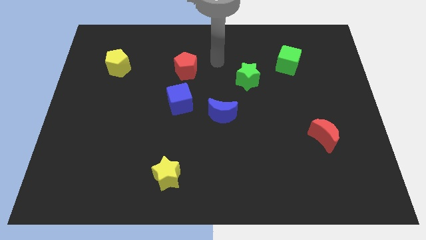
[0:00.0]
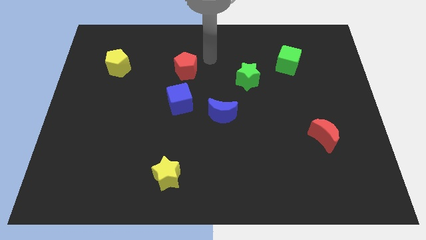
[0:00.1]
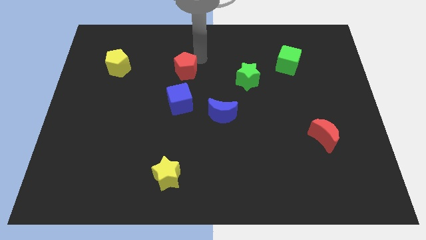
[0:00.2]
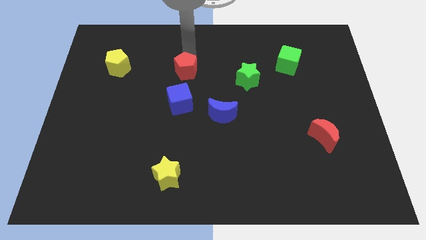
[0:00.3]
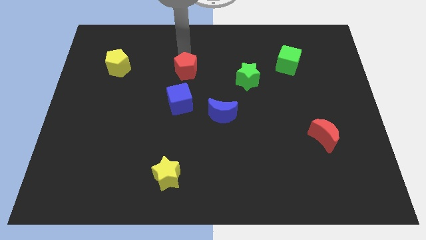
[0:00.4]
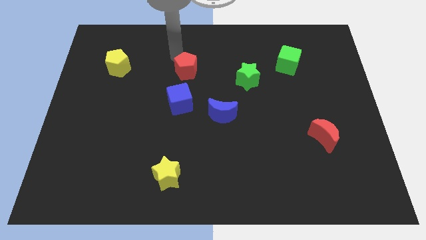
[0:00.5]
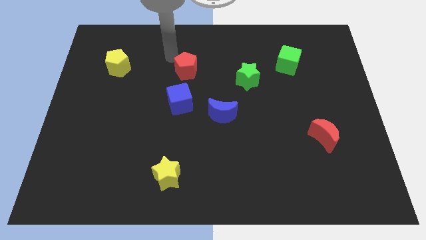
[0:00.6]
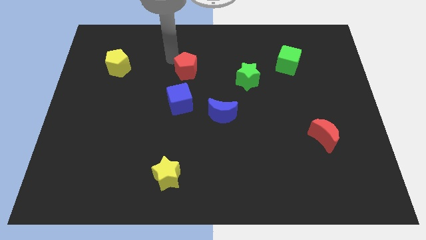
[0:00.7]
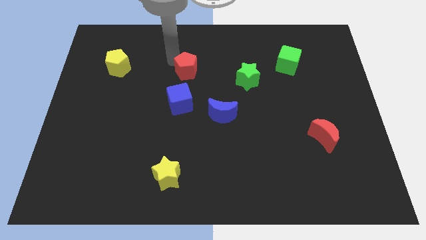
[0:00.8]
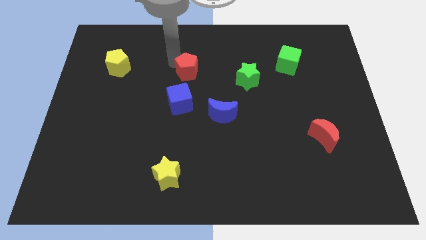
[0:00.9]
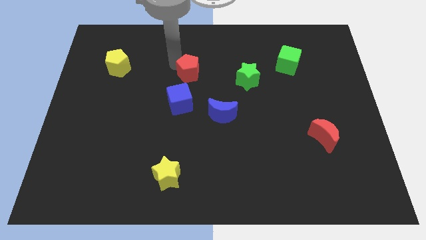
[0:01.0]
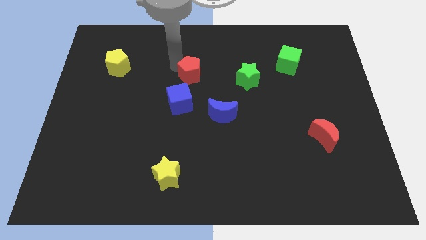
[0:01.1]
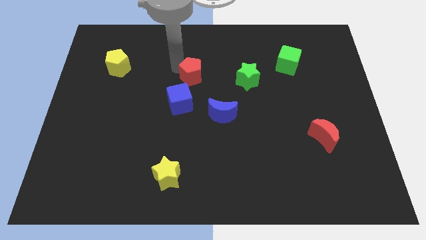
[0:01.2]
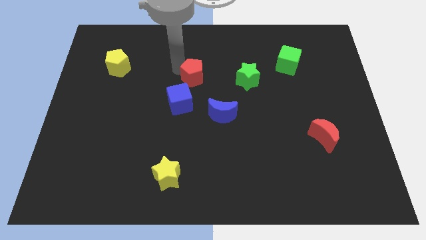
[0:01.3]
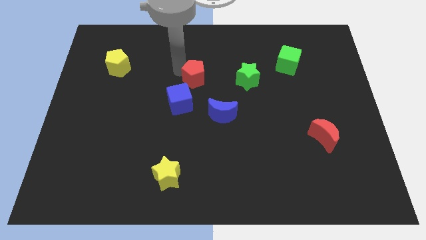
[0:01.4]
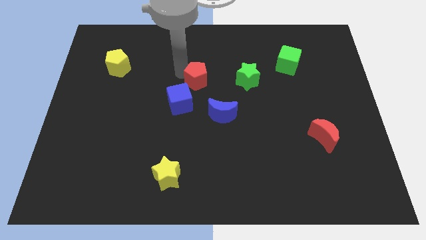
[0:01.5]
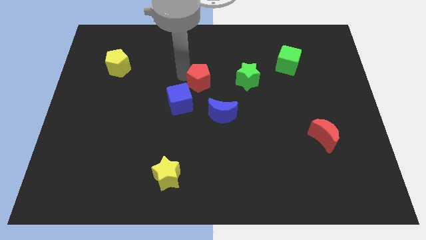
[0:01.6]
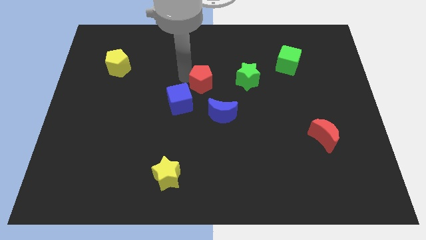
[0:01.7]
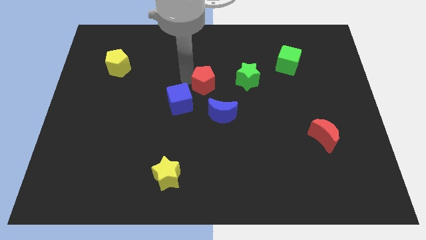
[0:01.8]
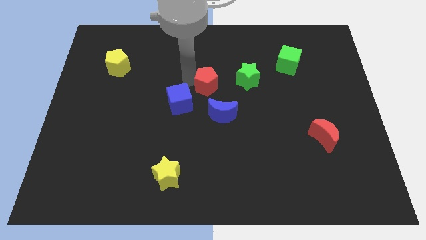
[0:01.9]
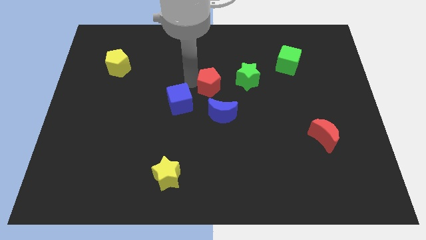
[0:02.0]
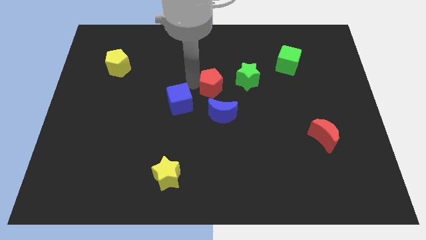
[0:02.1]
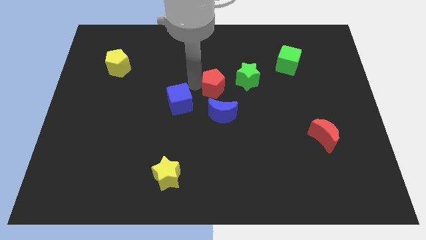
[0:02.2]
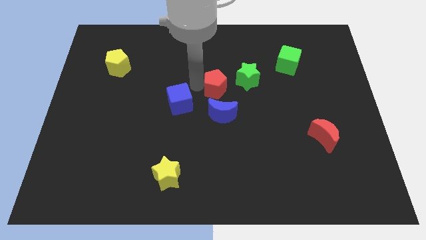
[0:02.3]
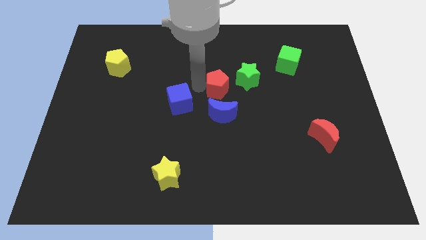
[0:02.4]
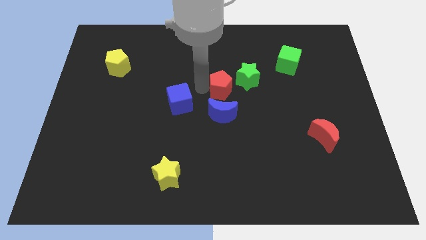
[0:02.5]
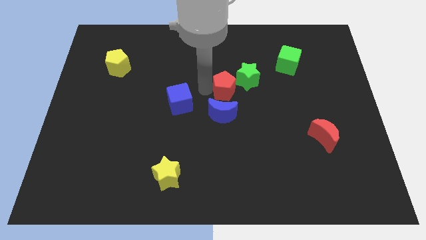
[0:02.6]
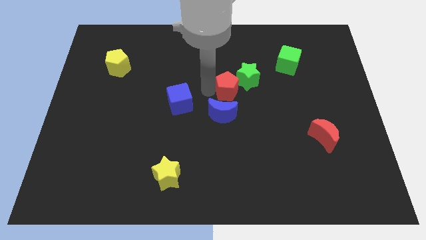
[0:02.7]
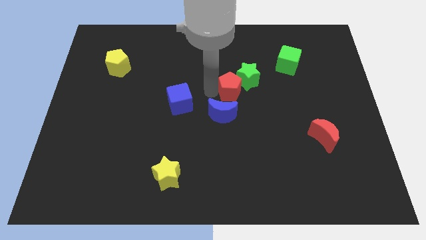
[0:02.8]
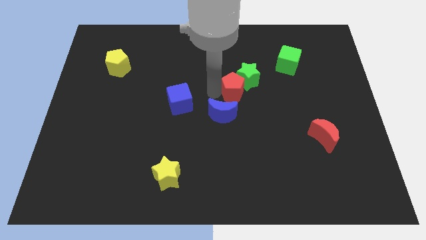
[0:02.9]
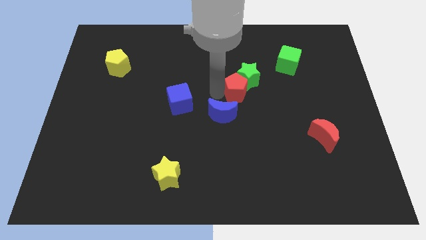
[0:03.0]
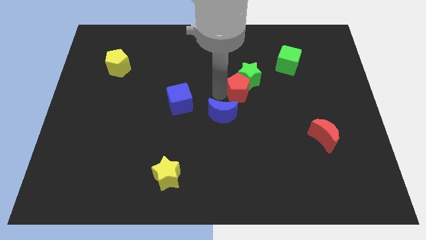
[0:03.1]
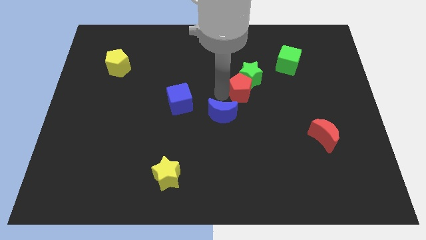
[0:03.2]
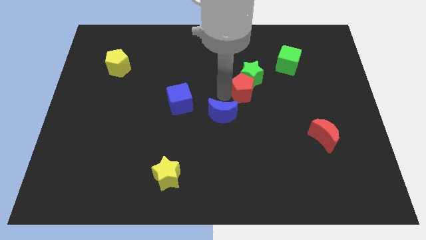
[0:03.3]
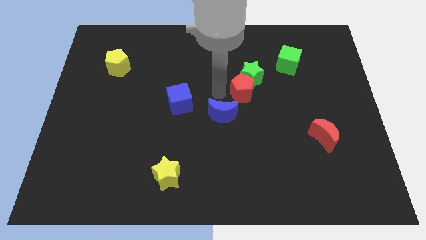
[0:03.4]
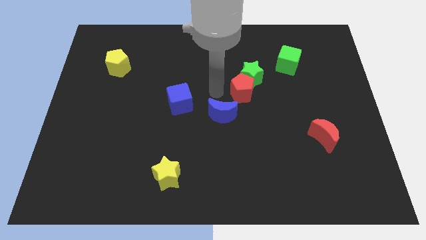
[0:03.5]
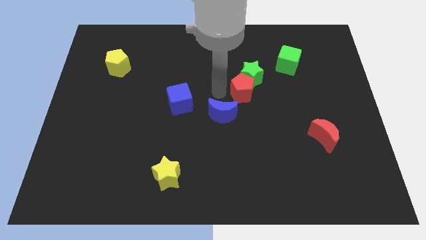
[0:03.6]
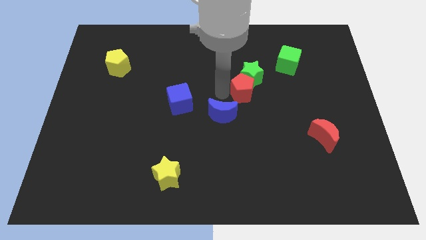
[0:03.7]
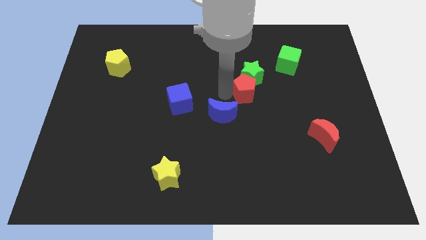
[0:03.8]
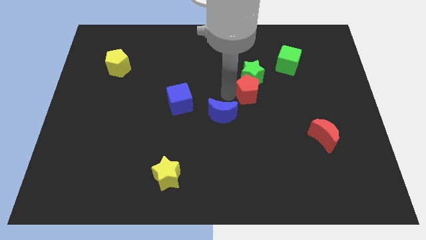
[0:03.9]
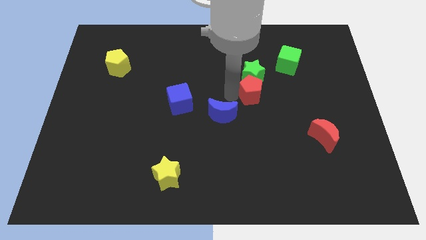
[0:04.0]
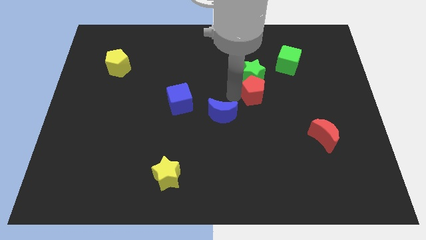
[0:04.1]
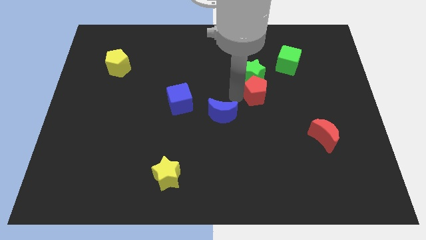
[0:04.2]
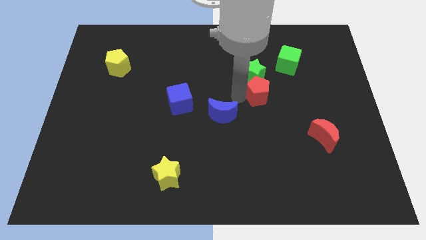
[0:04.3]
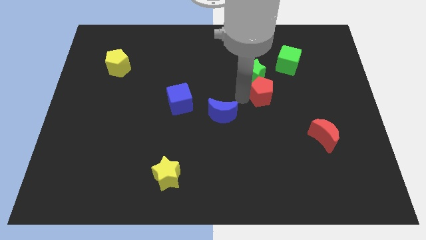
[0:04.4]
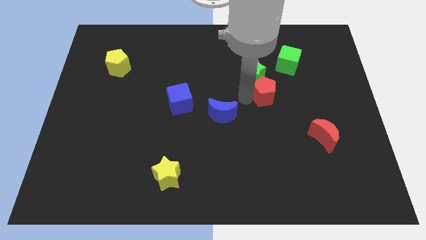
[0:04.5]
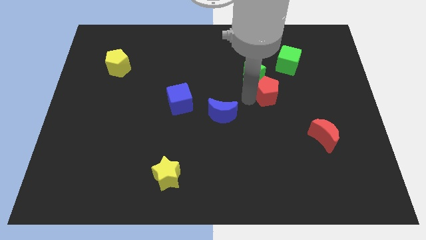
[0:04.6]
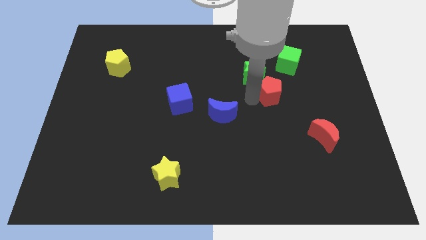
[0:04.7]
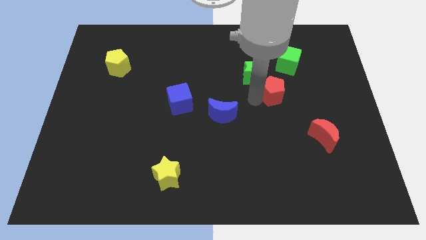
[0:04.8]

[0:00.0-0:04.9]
put the red pentagon below the green cube

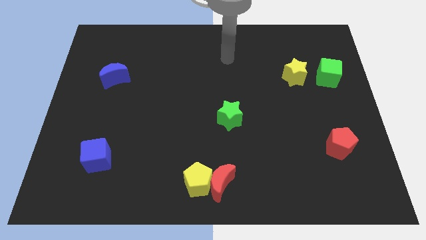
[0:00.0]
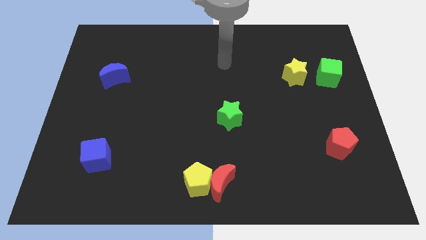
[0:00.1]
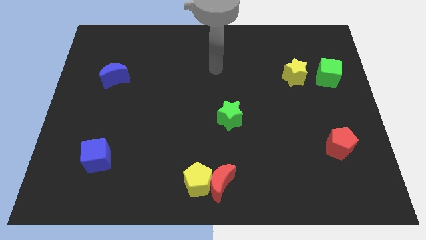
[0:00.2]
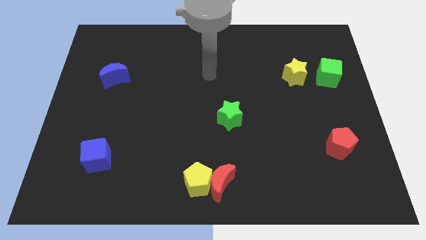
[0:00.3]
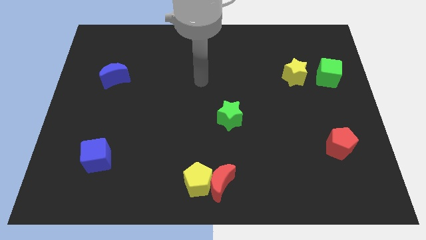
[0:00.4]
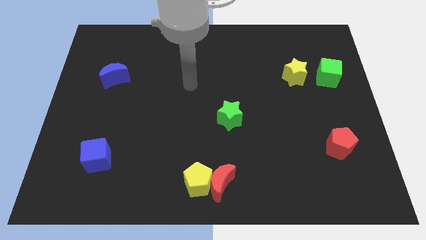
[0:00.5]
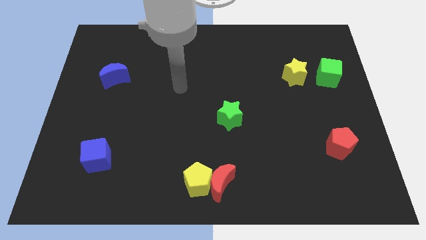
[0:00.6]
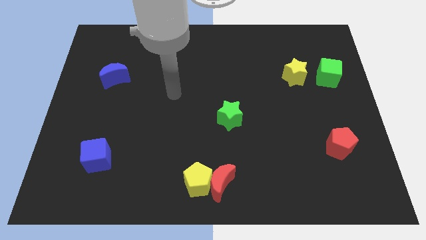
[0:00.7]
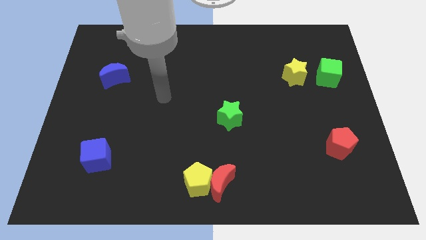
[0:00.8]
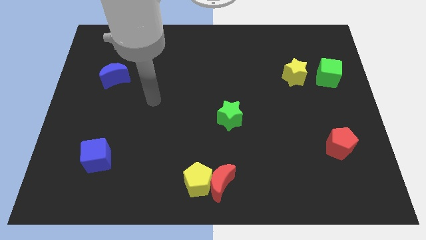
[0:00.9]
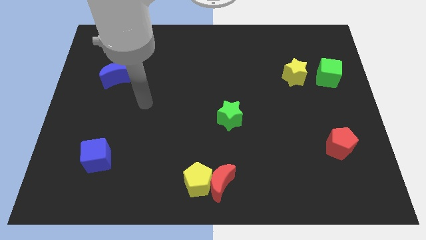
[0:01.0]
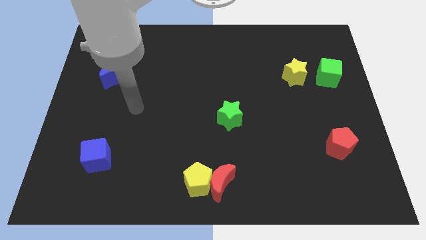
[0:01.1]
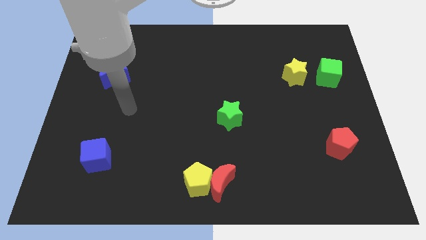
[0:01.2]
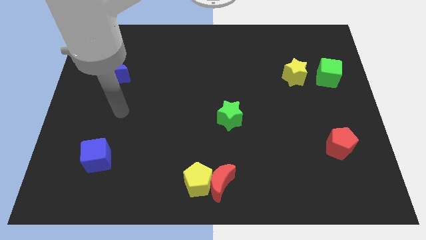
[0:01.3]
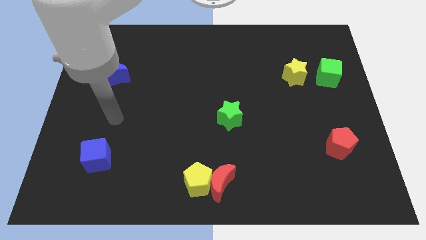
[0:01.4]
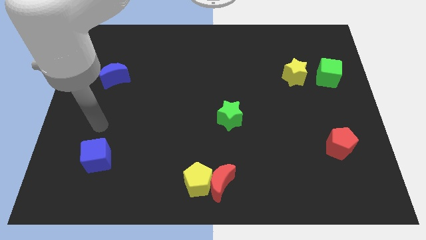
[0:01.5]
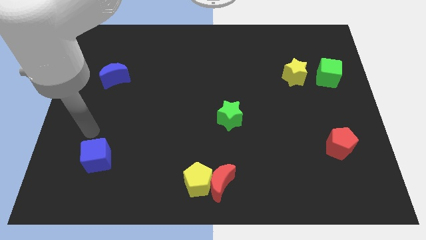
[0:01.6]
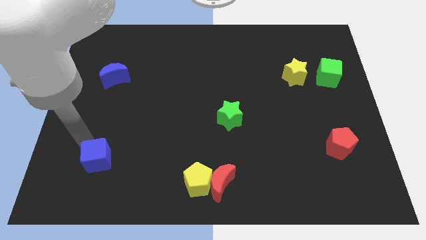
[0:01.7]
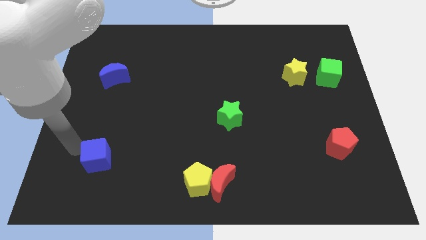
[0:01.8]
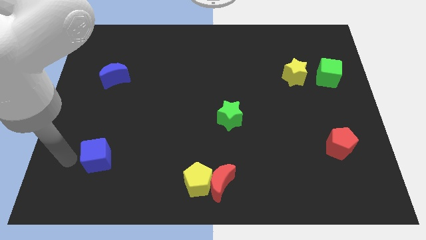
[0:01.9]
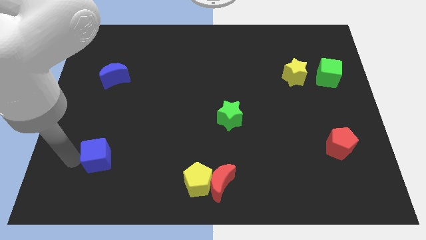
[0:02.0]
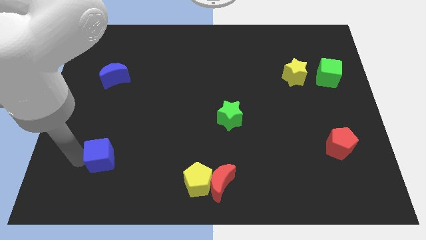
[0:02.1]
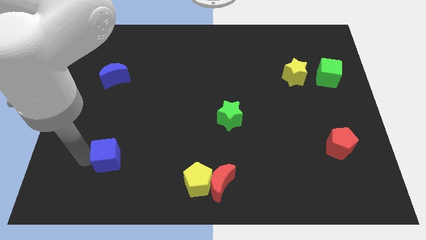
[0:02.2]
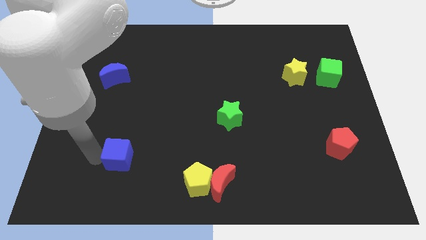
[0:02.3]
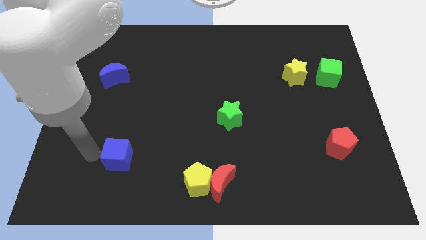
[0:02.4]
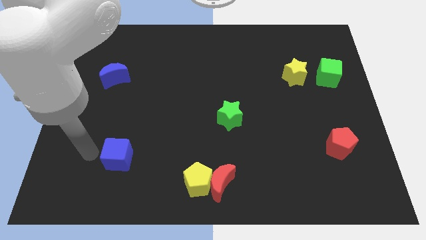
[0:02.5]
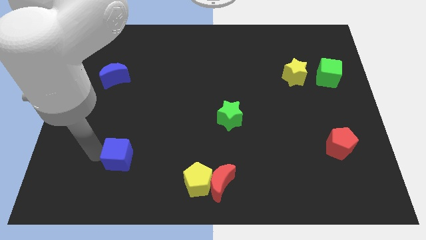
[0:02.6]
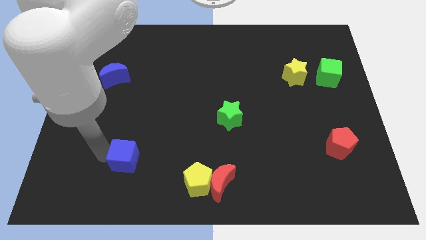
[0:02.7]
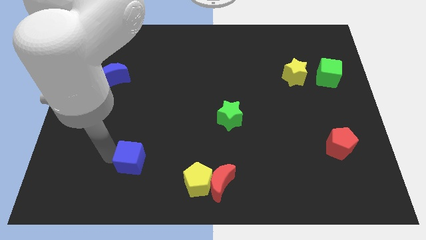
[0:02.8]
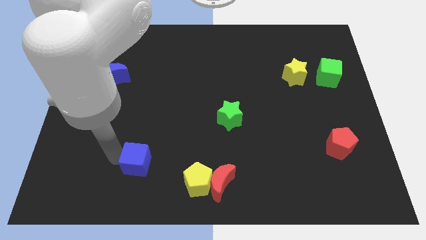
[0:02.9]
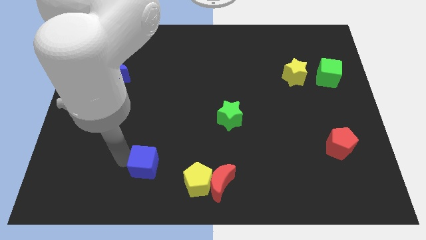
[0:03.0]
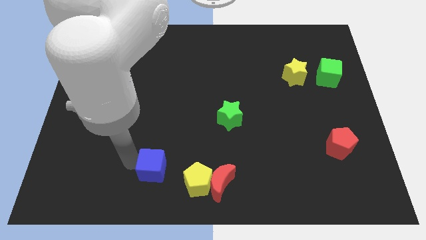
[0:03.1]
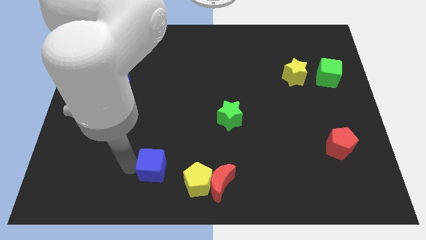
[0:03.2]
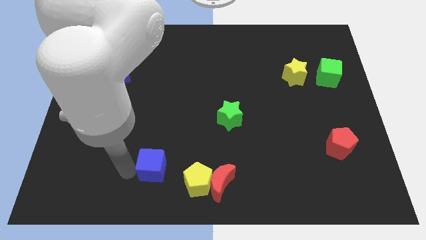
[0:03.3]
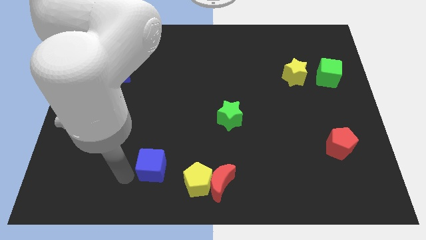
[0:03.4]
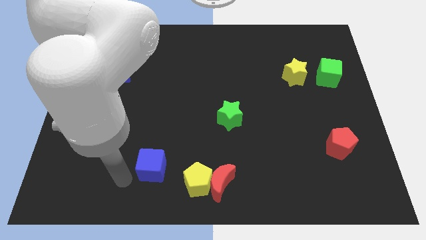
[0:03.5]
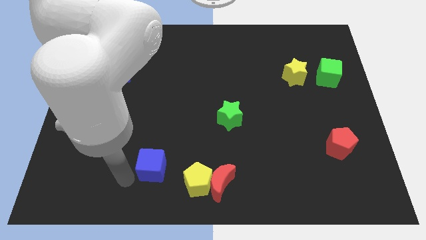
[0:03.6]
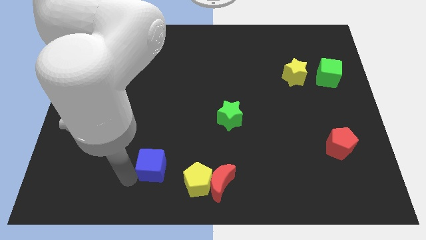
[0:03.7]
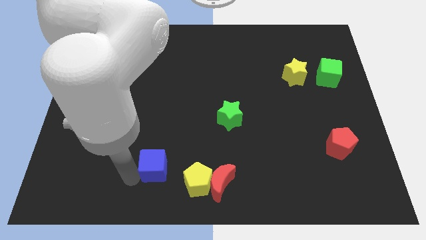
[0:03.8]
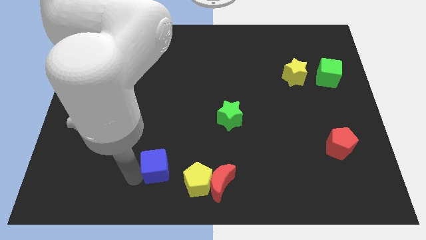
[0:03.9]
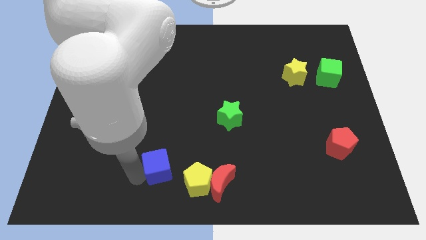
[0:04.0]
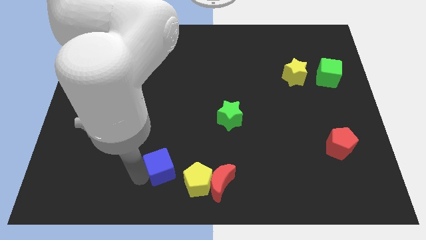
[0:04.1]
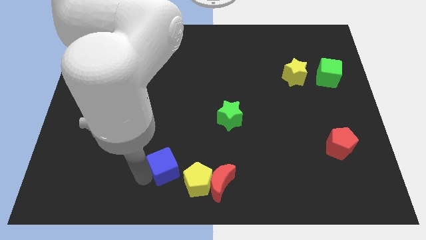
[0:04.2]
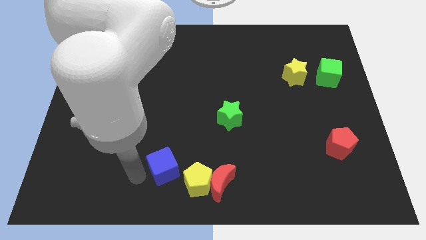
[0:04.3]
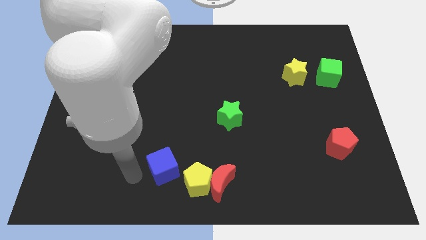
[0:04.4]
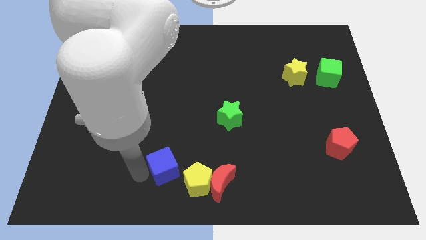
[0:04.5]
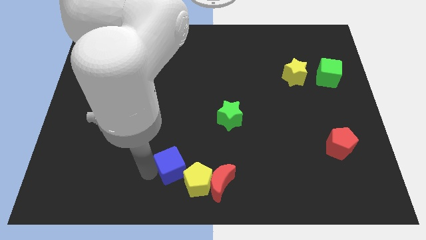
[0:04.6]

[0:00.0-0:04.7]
slide the blue cube to the top left side of the red moon
